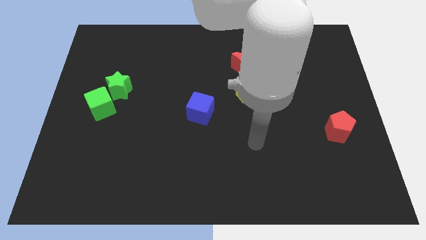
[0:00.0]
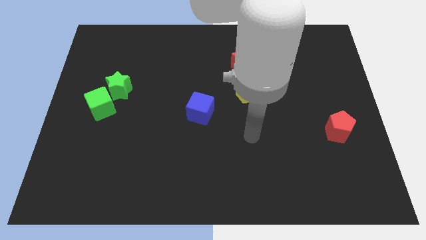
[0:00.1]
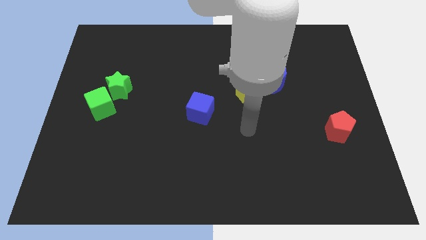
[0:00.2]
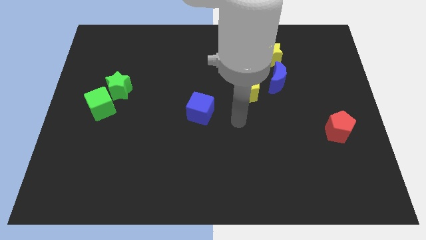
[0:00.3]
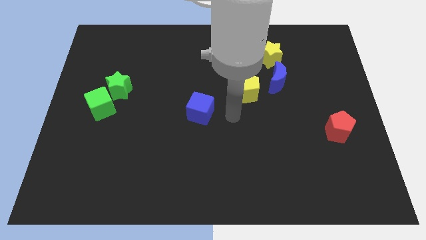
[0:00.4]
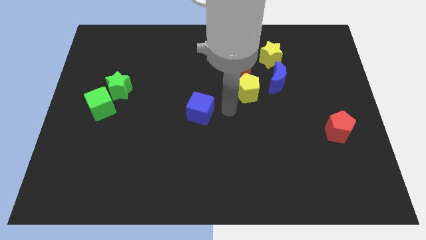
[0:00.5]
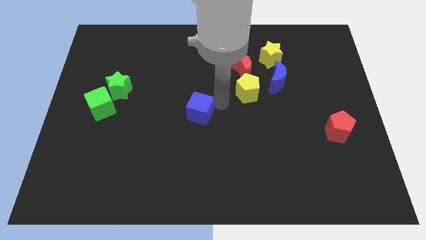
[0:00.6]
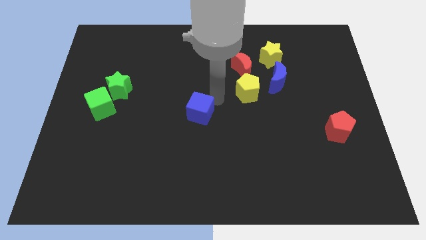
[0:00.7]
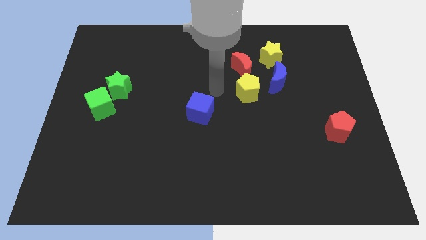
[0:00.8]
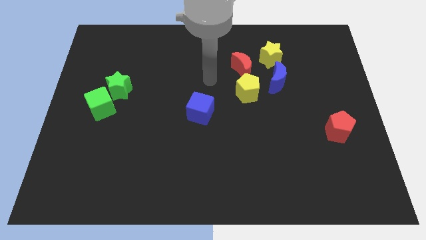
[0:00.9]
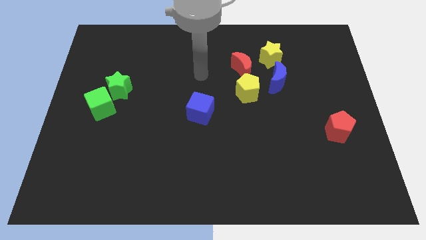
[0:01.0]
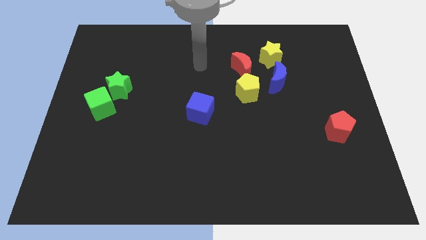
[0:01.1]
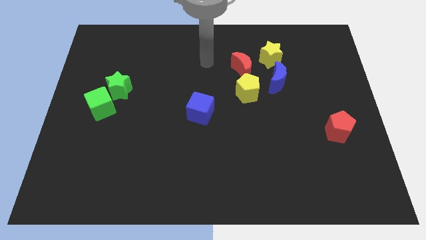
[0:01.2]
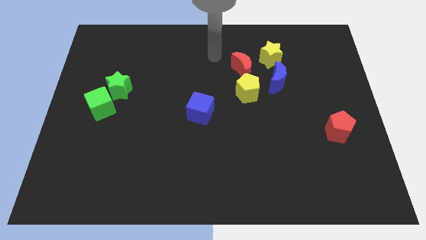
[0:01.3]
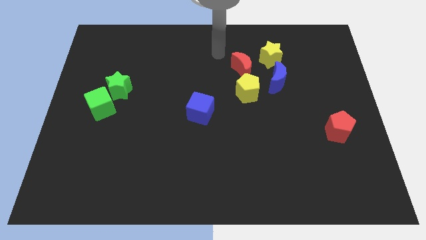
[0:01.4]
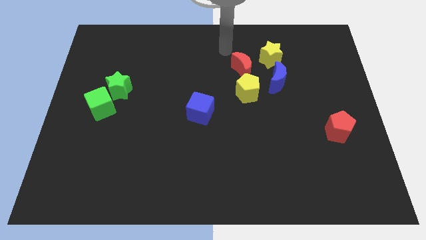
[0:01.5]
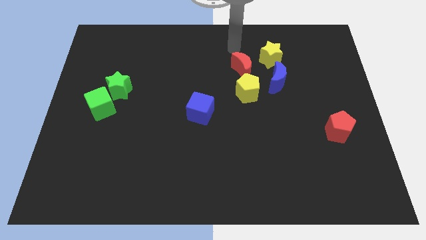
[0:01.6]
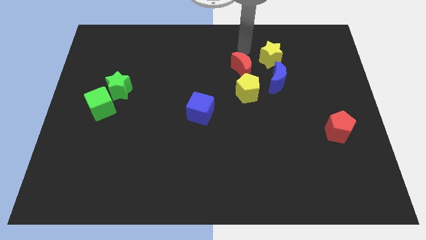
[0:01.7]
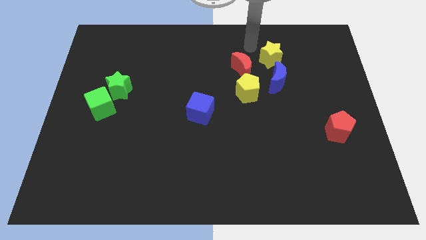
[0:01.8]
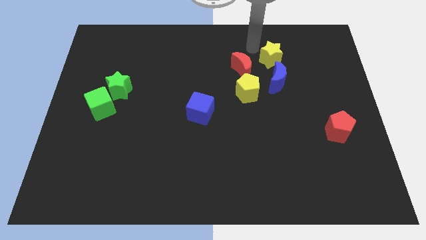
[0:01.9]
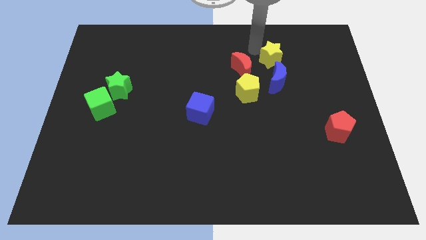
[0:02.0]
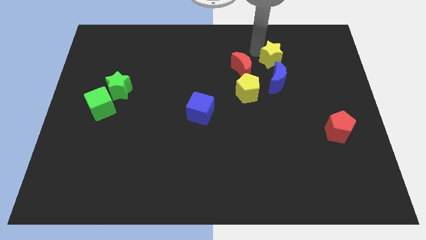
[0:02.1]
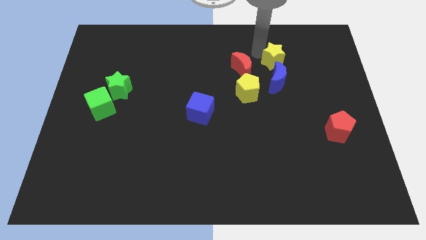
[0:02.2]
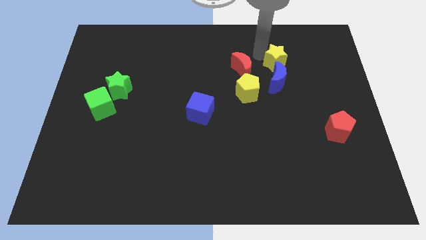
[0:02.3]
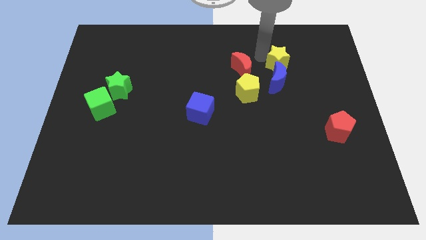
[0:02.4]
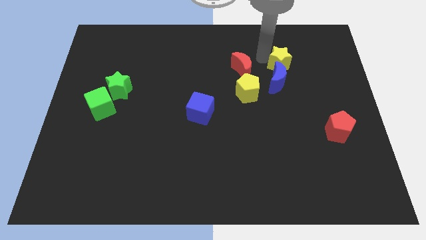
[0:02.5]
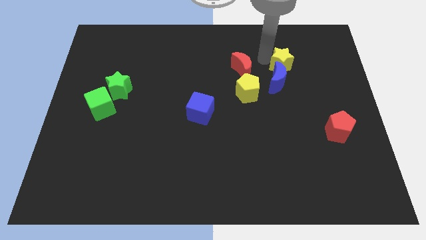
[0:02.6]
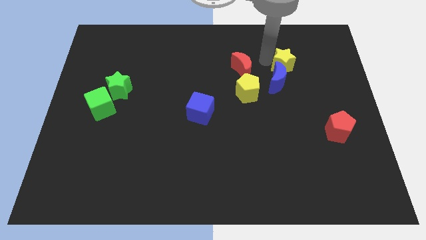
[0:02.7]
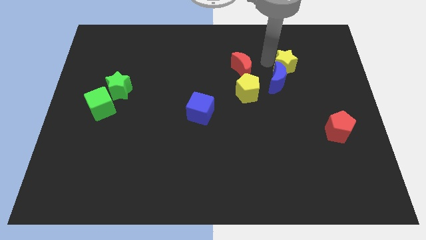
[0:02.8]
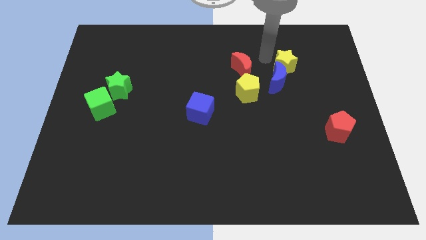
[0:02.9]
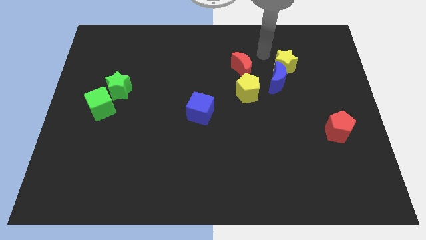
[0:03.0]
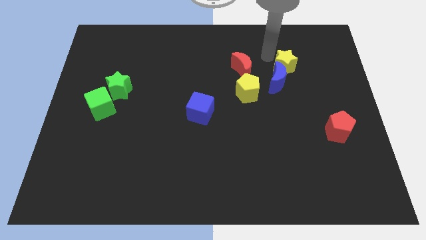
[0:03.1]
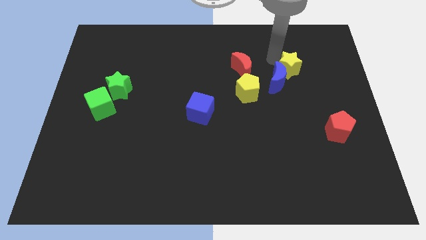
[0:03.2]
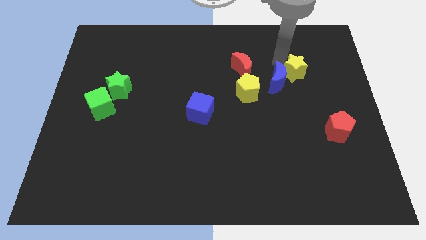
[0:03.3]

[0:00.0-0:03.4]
push the yellow star a little bit down and then right

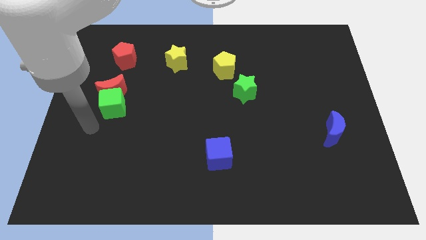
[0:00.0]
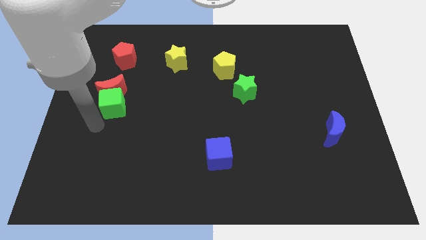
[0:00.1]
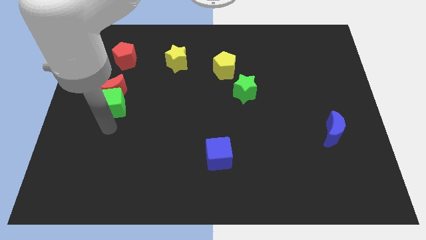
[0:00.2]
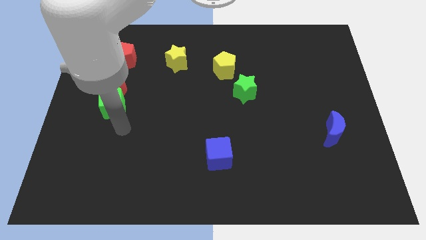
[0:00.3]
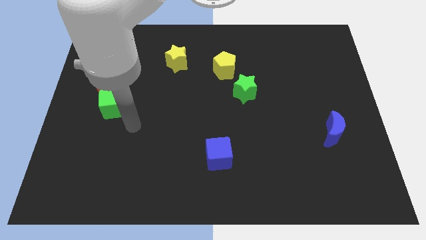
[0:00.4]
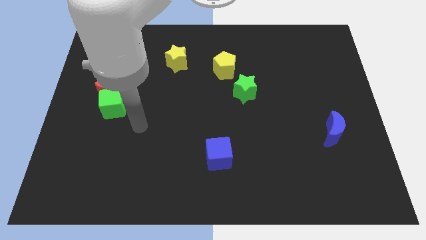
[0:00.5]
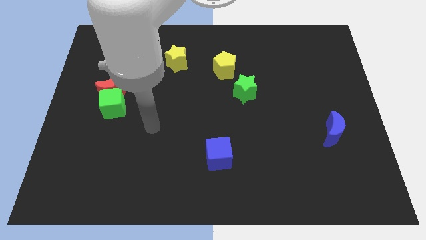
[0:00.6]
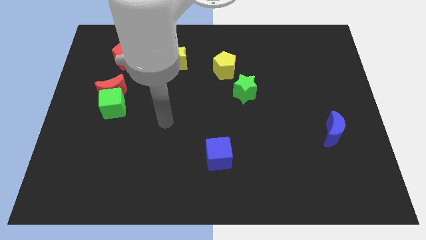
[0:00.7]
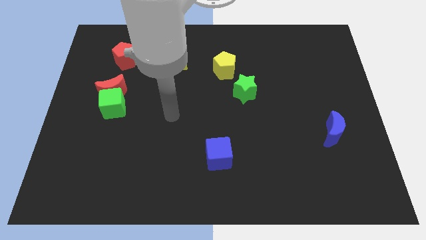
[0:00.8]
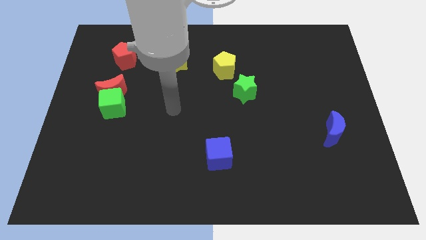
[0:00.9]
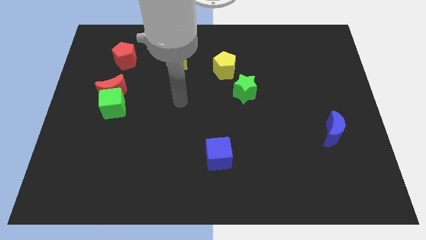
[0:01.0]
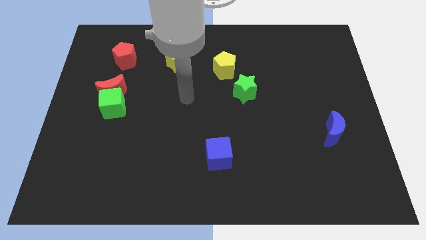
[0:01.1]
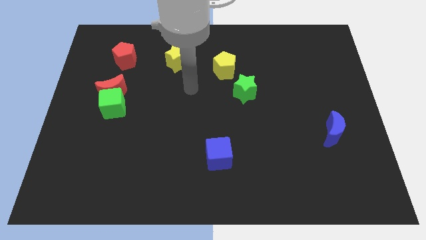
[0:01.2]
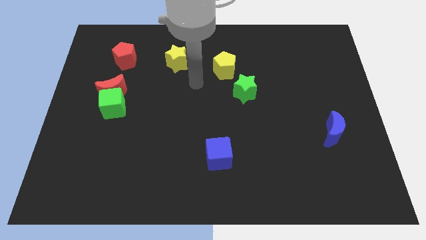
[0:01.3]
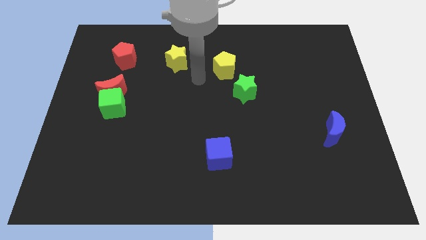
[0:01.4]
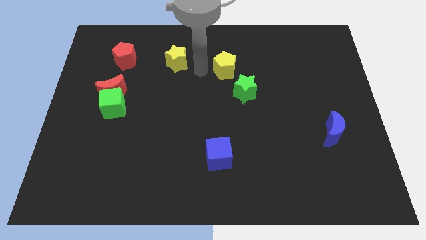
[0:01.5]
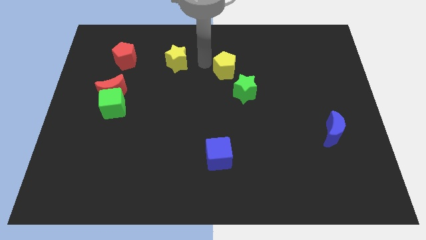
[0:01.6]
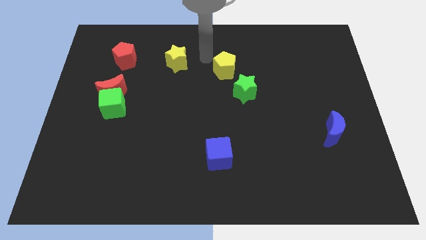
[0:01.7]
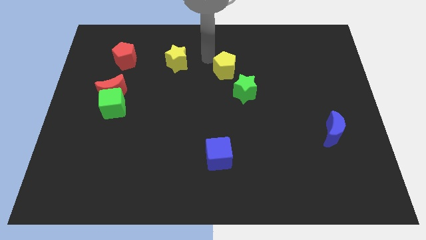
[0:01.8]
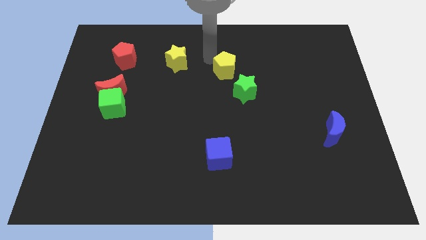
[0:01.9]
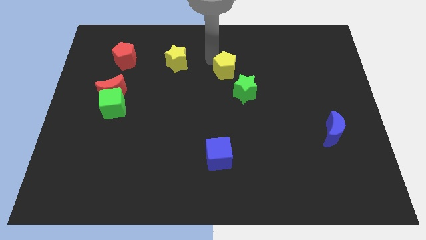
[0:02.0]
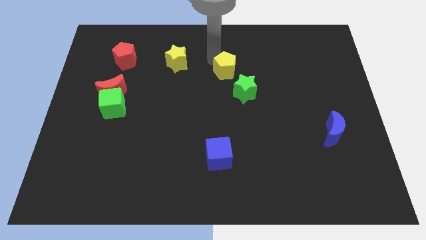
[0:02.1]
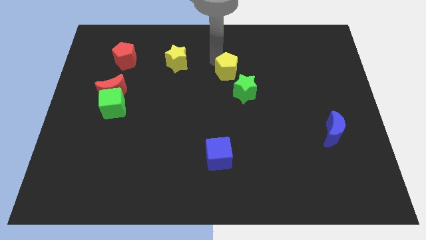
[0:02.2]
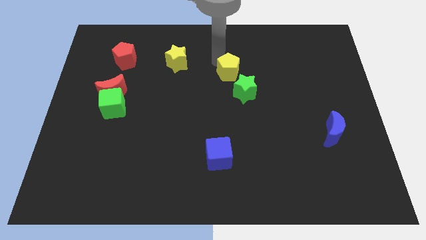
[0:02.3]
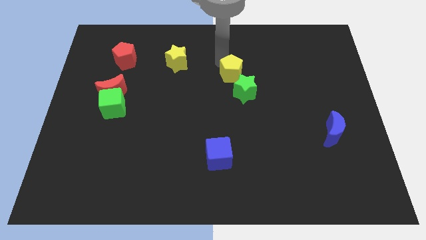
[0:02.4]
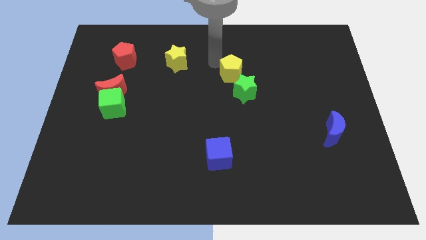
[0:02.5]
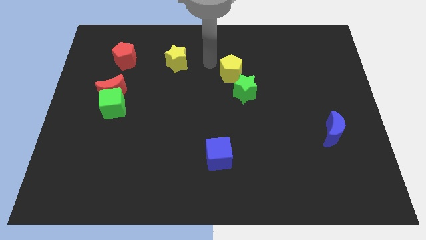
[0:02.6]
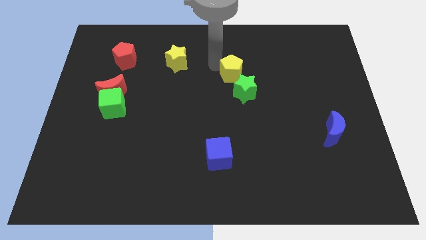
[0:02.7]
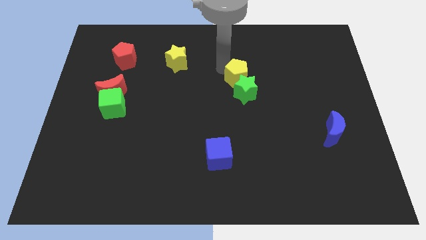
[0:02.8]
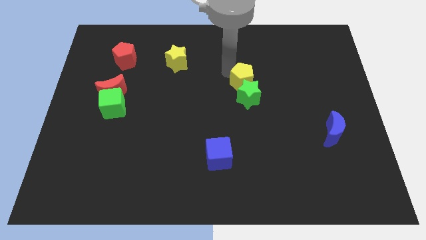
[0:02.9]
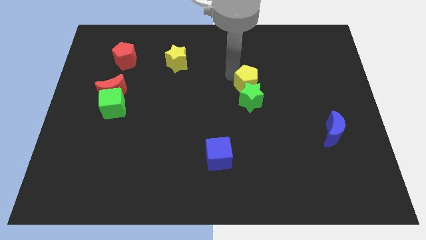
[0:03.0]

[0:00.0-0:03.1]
move the yellow pentagon down and to the right a little

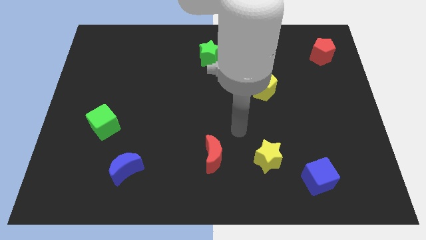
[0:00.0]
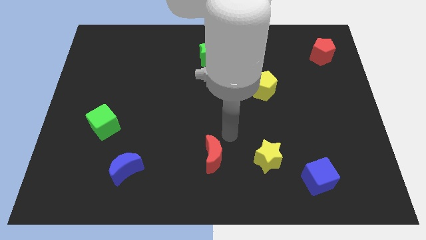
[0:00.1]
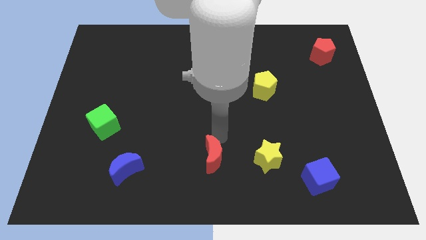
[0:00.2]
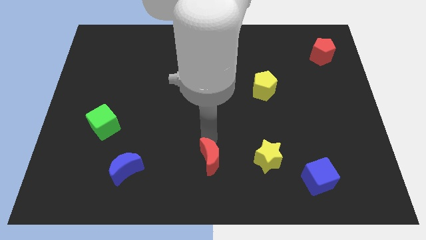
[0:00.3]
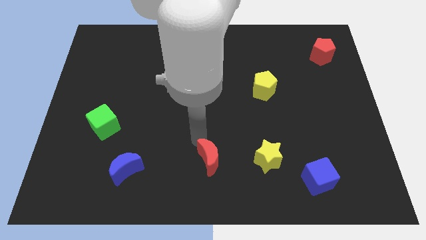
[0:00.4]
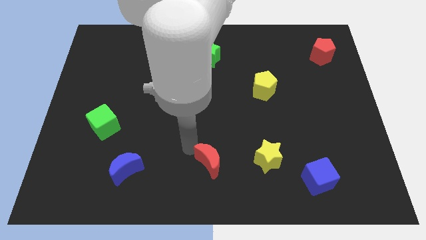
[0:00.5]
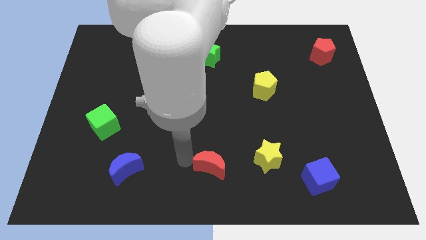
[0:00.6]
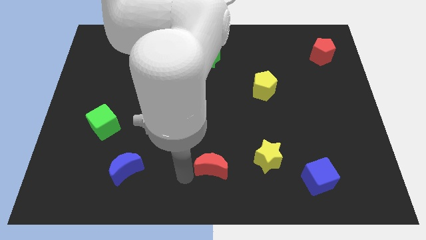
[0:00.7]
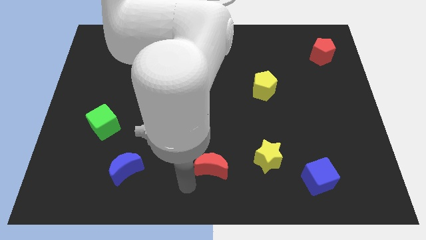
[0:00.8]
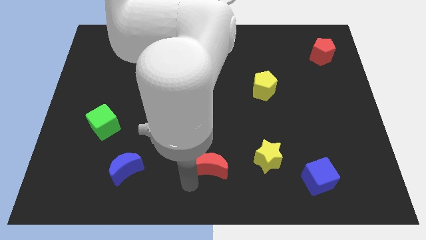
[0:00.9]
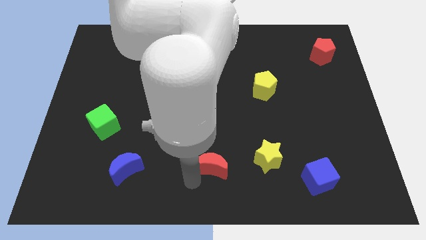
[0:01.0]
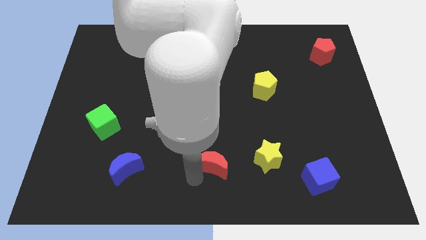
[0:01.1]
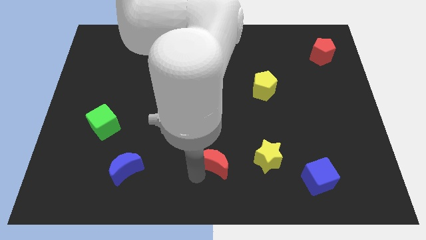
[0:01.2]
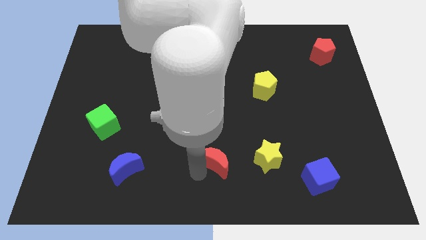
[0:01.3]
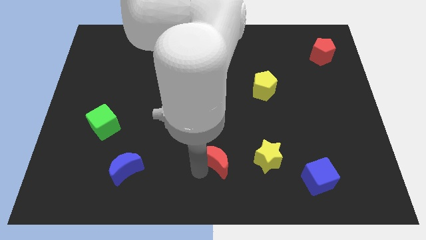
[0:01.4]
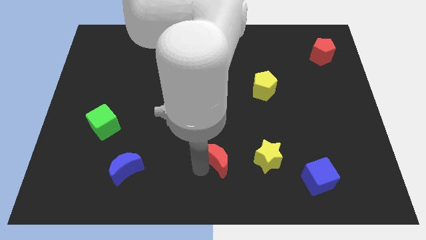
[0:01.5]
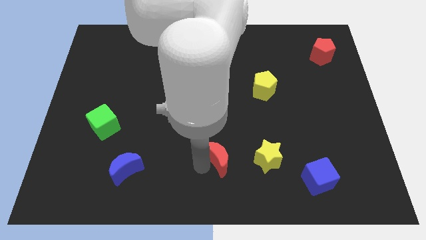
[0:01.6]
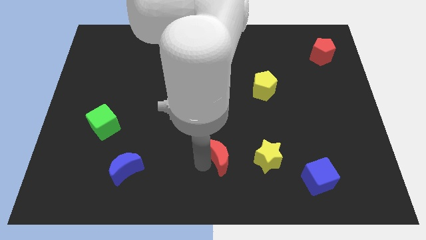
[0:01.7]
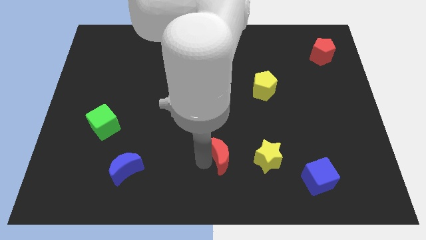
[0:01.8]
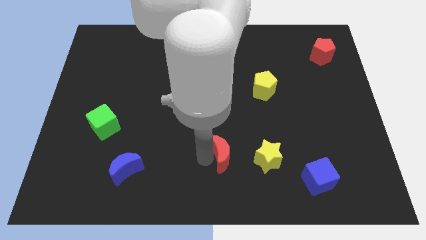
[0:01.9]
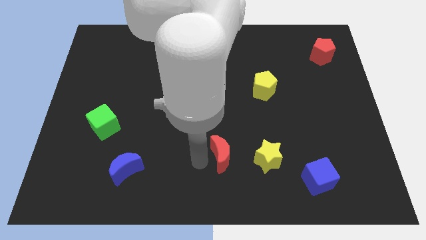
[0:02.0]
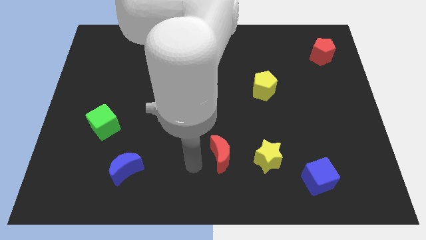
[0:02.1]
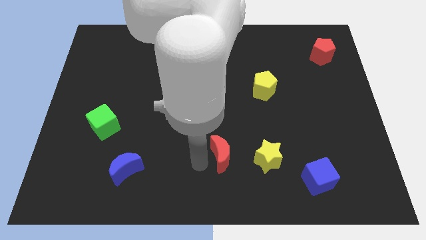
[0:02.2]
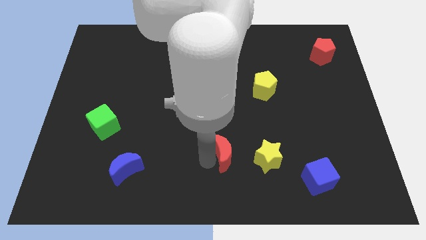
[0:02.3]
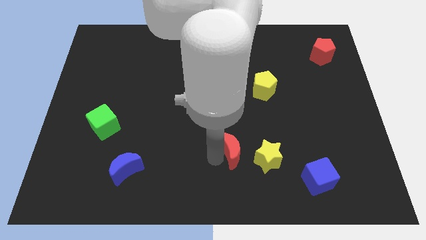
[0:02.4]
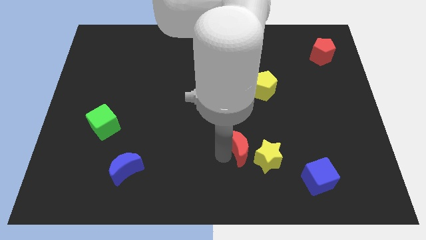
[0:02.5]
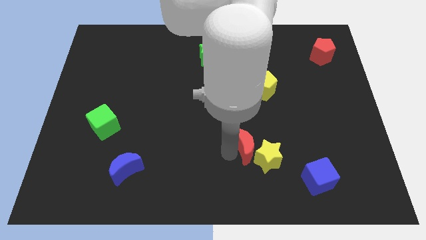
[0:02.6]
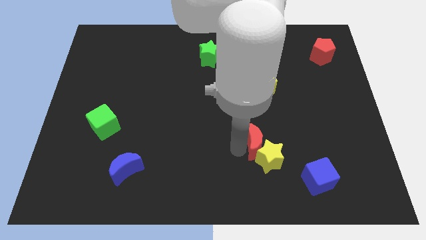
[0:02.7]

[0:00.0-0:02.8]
push the red moon right somewhat
